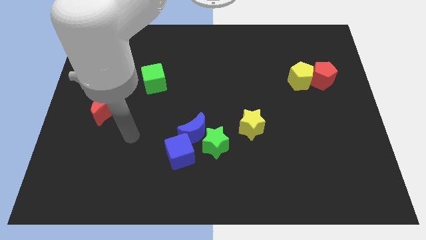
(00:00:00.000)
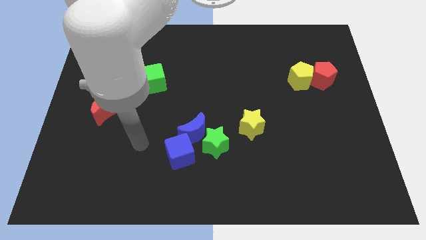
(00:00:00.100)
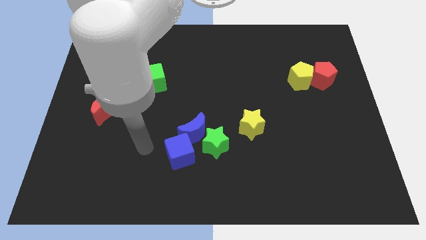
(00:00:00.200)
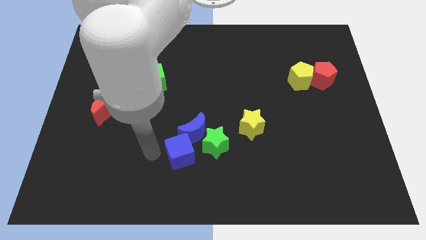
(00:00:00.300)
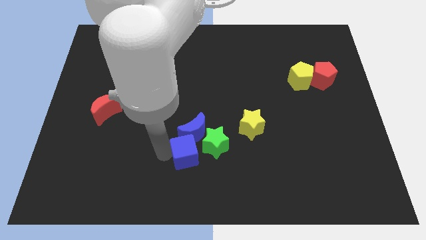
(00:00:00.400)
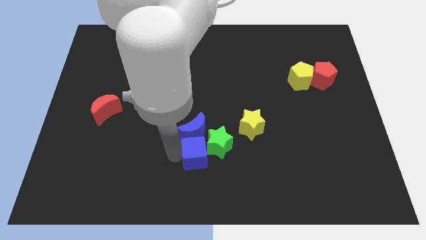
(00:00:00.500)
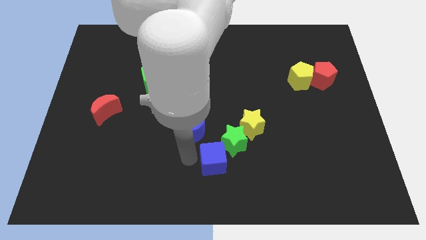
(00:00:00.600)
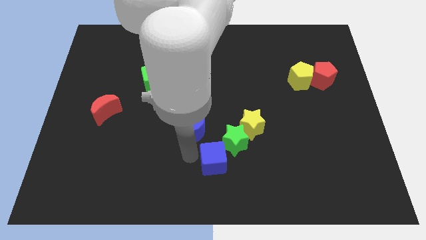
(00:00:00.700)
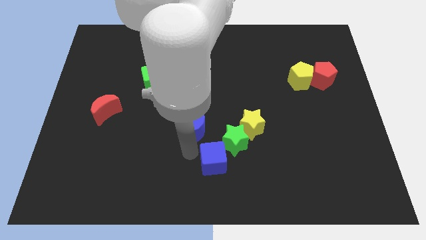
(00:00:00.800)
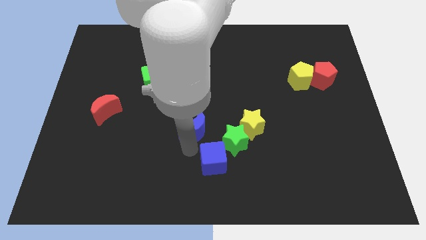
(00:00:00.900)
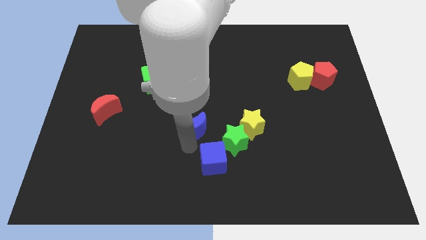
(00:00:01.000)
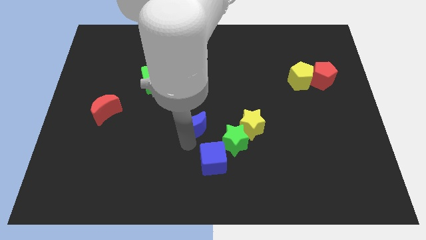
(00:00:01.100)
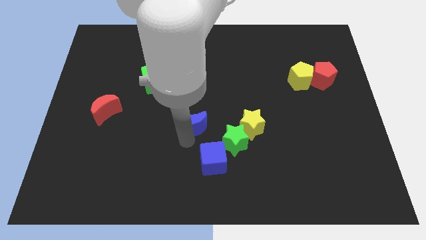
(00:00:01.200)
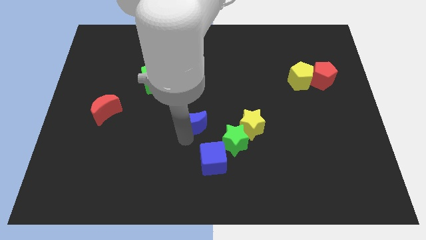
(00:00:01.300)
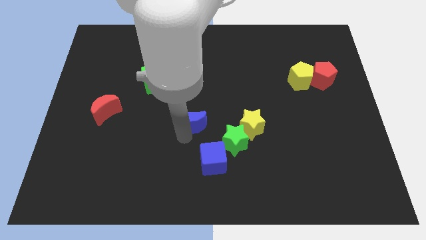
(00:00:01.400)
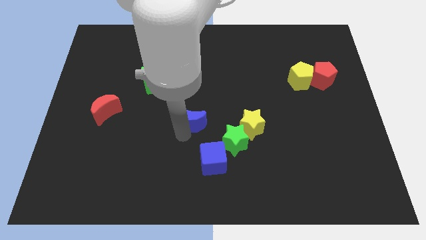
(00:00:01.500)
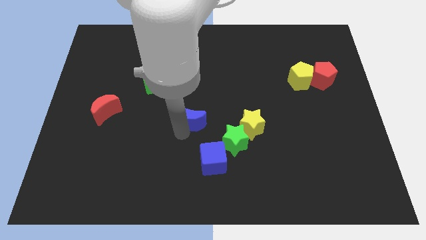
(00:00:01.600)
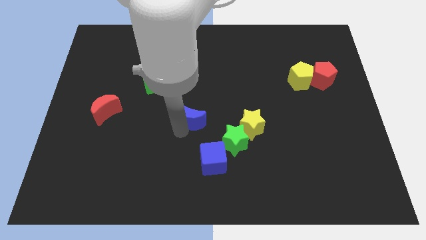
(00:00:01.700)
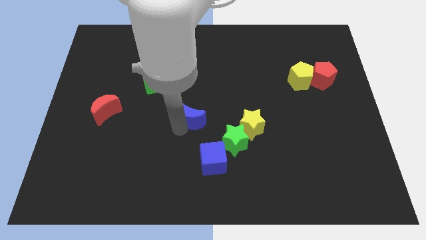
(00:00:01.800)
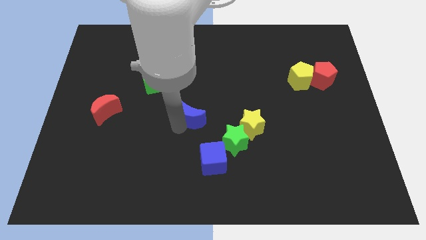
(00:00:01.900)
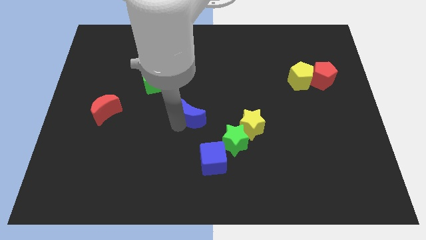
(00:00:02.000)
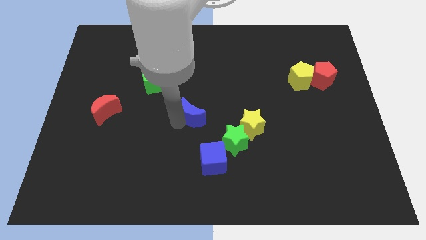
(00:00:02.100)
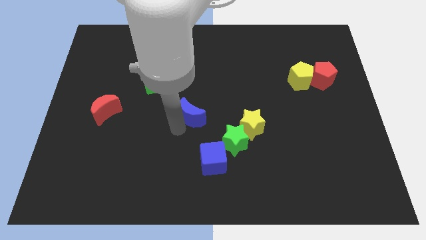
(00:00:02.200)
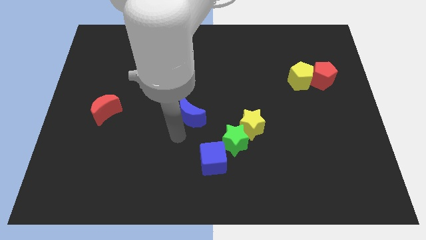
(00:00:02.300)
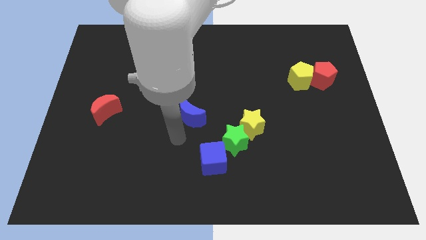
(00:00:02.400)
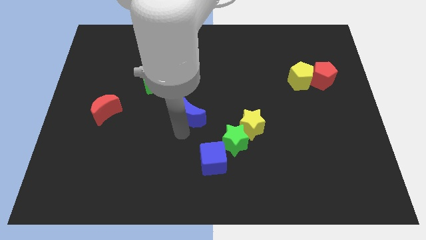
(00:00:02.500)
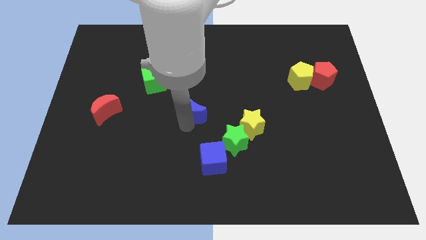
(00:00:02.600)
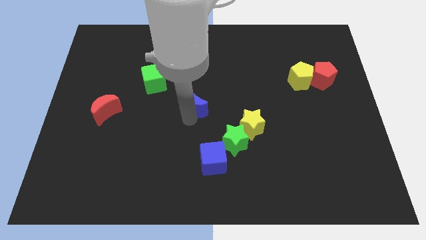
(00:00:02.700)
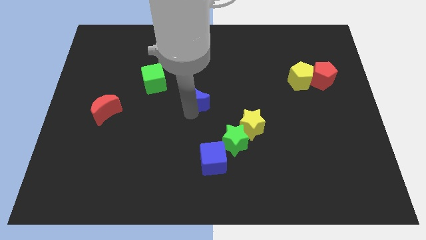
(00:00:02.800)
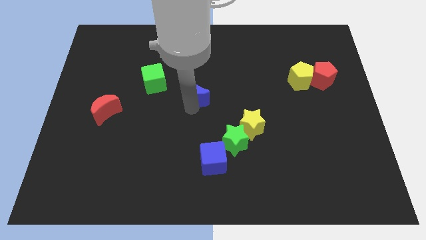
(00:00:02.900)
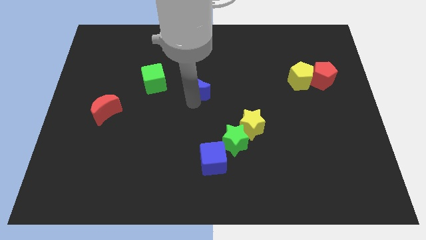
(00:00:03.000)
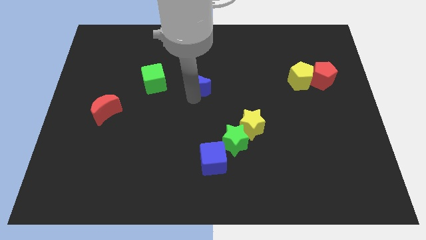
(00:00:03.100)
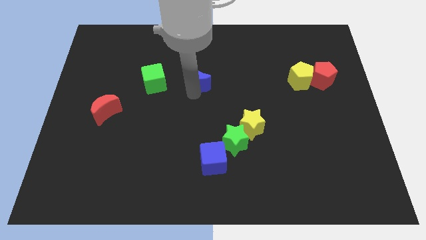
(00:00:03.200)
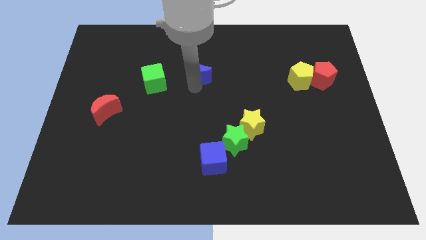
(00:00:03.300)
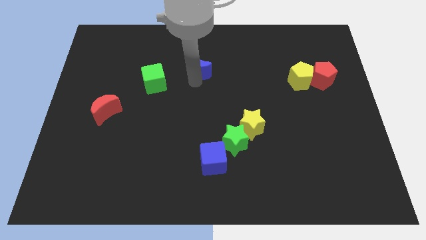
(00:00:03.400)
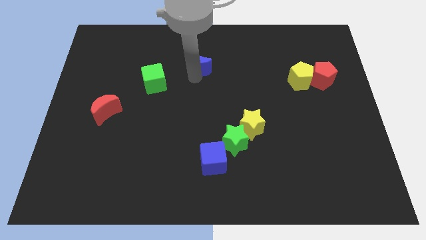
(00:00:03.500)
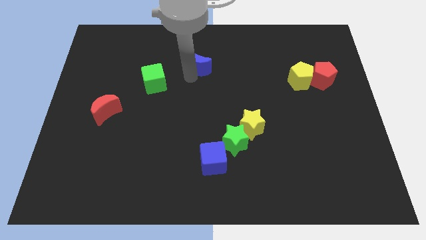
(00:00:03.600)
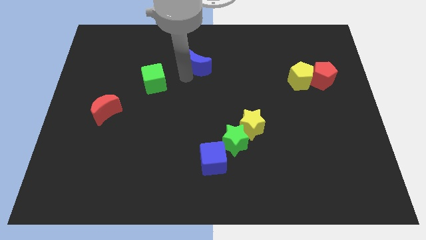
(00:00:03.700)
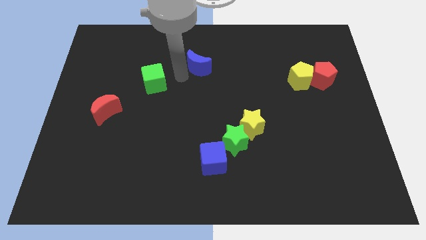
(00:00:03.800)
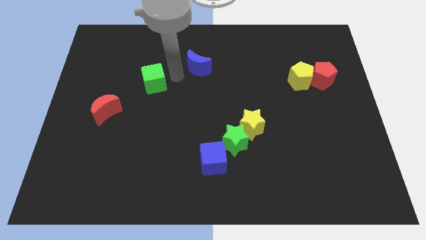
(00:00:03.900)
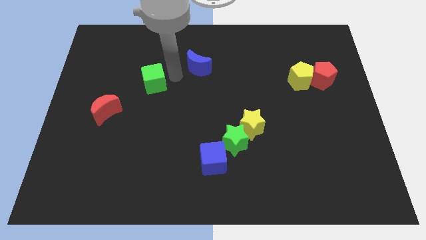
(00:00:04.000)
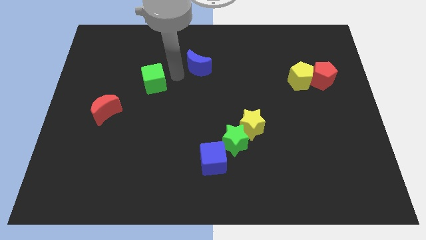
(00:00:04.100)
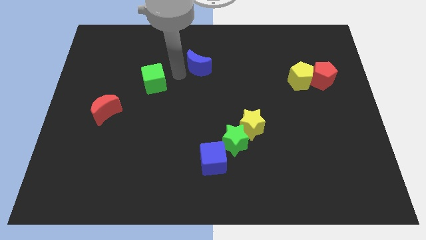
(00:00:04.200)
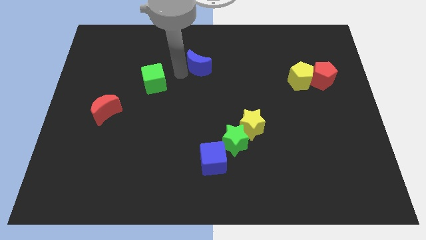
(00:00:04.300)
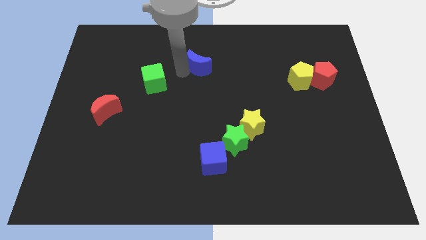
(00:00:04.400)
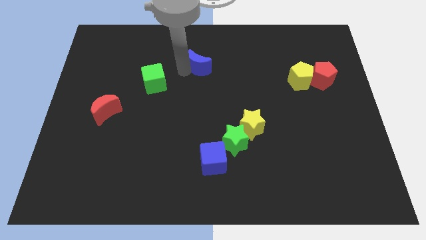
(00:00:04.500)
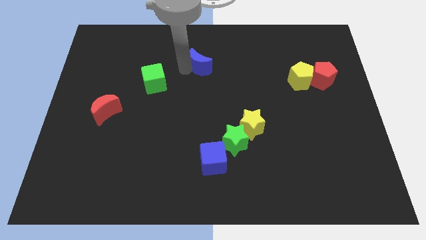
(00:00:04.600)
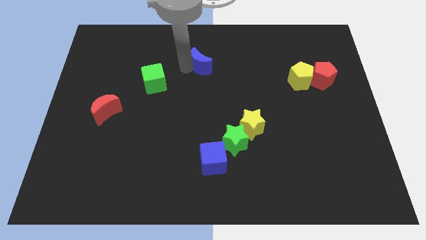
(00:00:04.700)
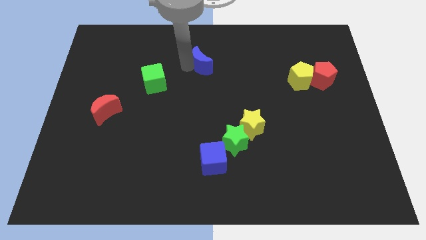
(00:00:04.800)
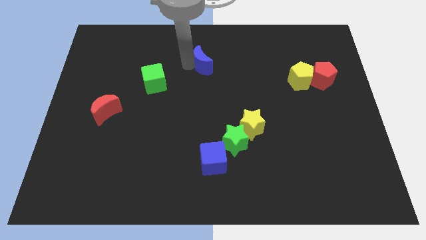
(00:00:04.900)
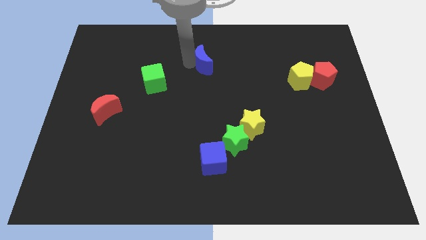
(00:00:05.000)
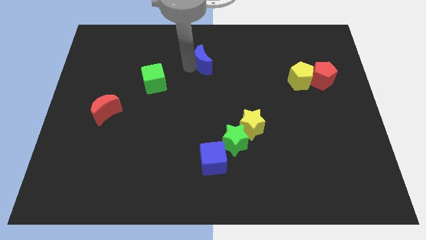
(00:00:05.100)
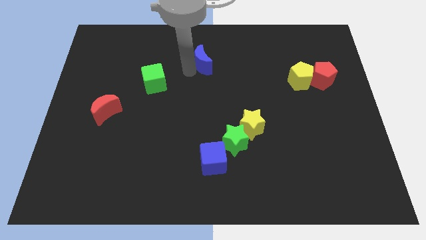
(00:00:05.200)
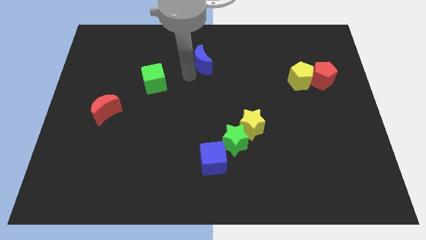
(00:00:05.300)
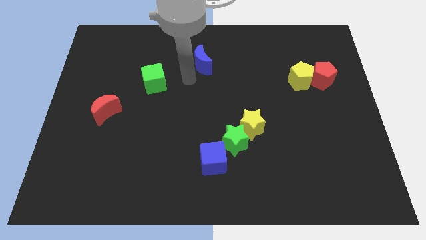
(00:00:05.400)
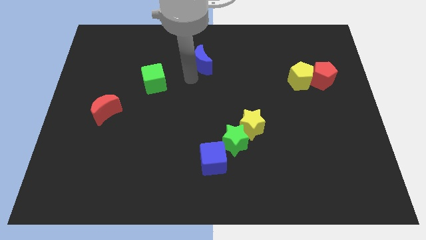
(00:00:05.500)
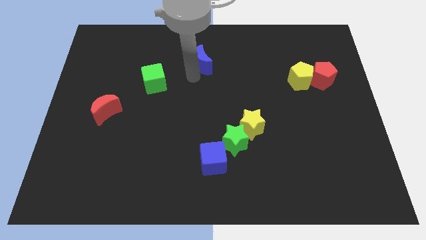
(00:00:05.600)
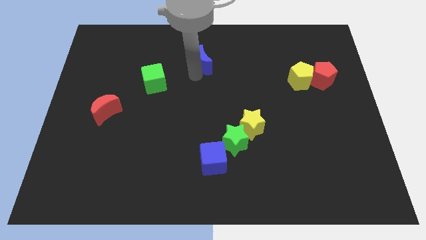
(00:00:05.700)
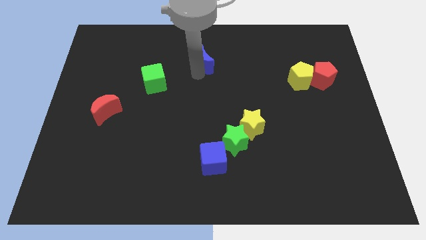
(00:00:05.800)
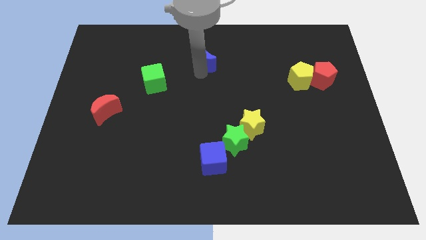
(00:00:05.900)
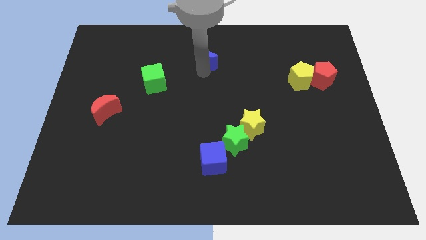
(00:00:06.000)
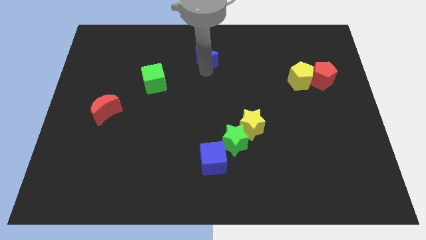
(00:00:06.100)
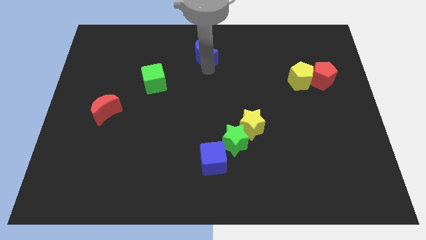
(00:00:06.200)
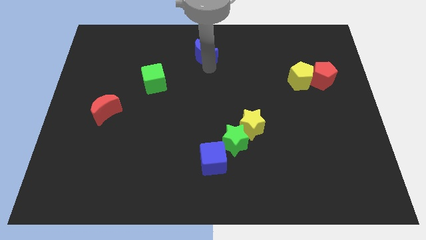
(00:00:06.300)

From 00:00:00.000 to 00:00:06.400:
move the blue moon to the towards your base

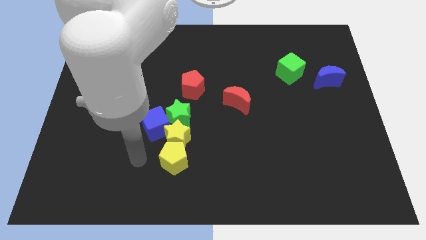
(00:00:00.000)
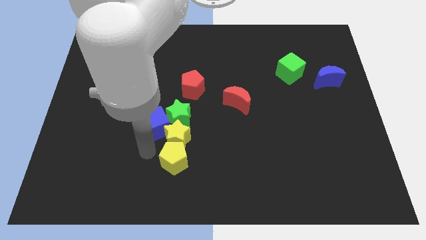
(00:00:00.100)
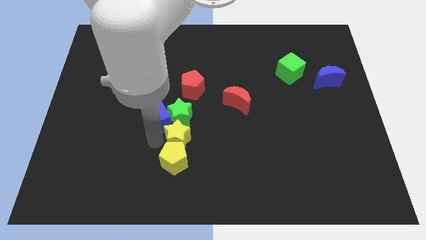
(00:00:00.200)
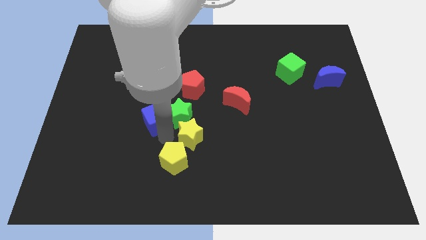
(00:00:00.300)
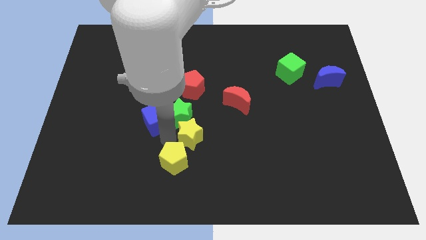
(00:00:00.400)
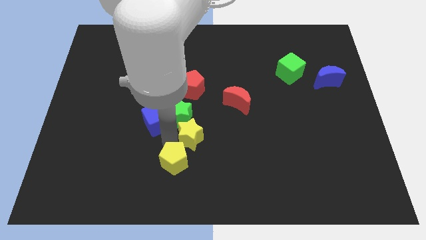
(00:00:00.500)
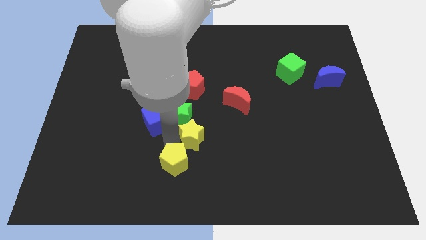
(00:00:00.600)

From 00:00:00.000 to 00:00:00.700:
push the yellow pentagon to the bottom side

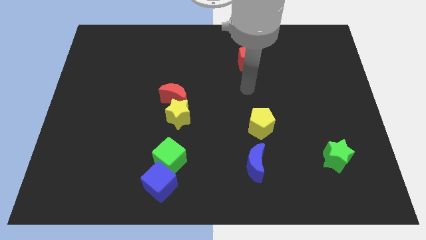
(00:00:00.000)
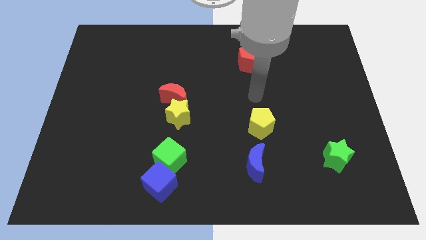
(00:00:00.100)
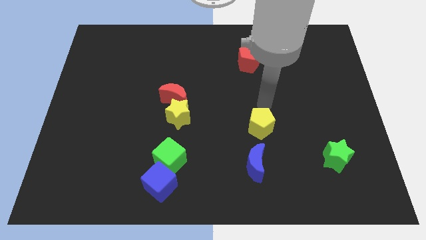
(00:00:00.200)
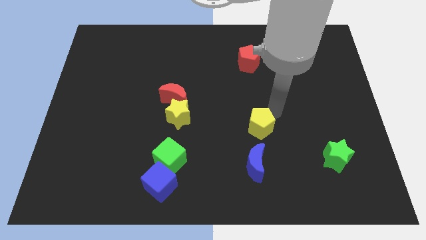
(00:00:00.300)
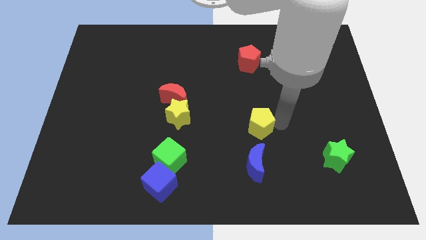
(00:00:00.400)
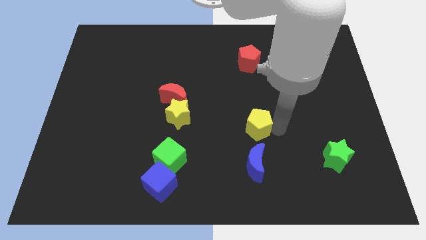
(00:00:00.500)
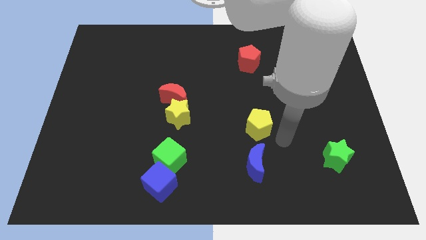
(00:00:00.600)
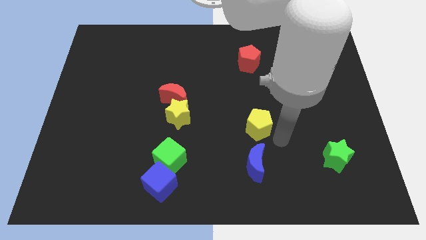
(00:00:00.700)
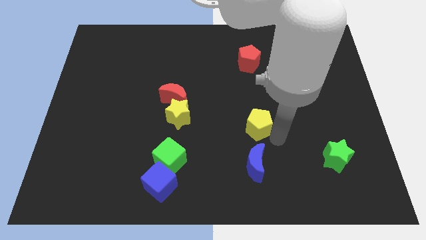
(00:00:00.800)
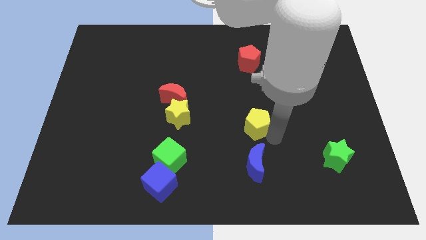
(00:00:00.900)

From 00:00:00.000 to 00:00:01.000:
slide the yellow pentagon to the middle of the board
